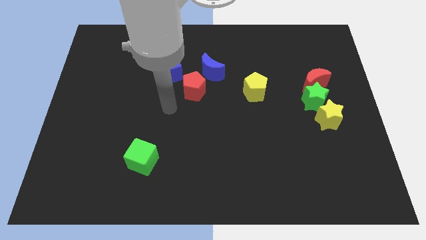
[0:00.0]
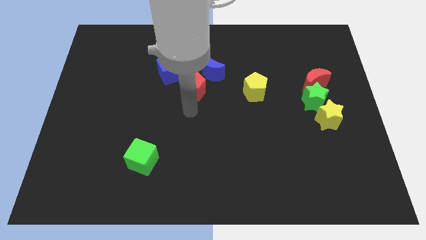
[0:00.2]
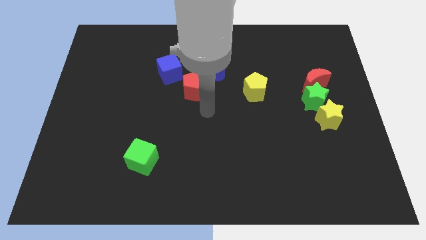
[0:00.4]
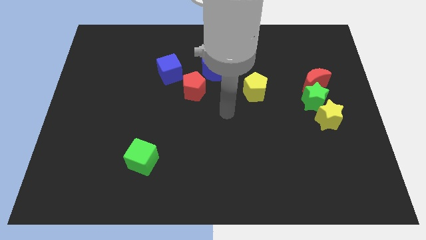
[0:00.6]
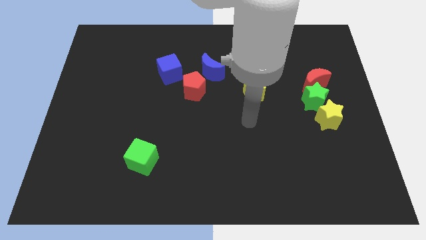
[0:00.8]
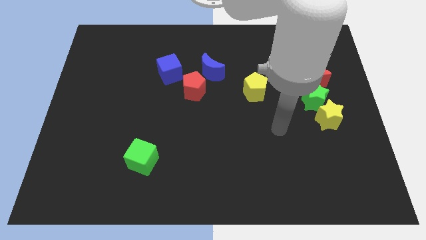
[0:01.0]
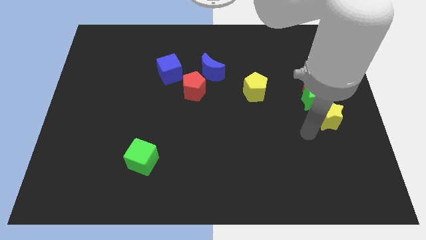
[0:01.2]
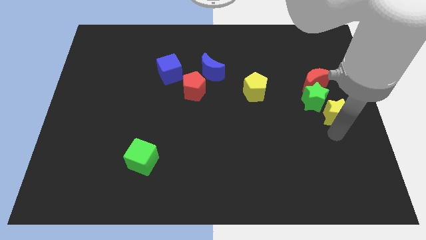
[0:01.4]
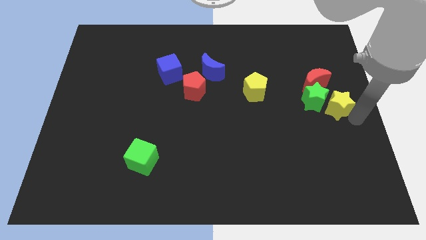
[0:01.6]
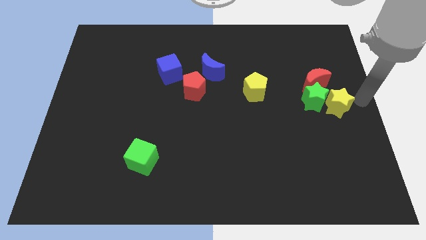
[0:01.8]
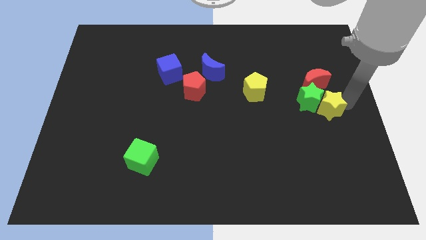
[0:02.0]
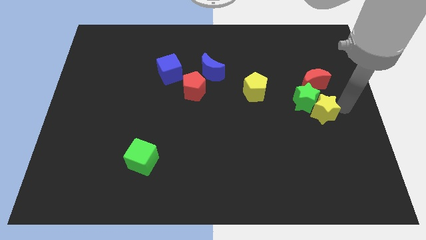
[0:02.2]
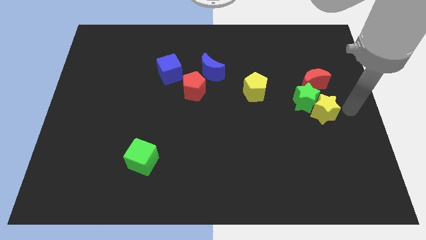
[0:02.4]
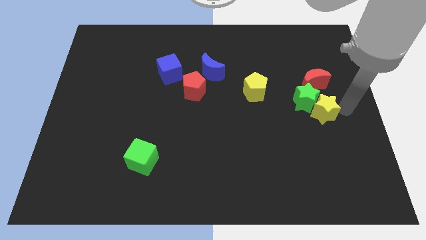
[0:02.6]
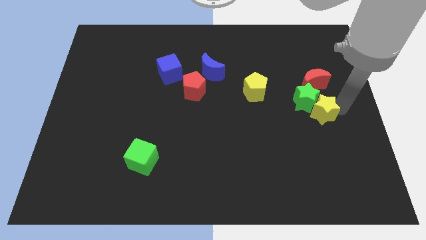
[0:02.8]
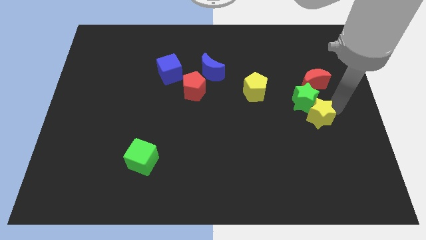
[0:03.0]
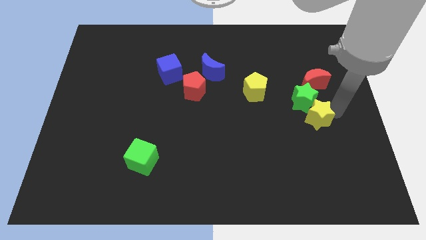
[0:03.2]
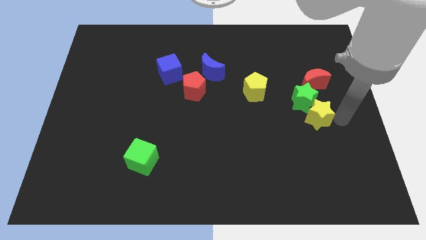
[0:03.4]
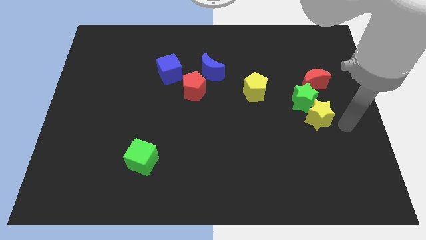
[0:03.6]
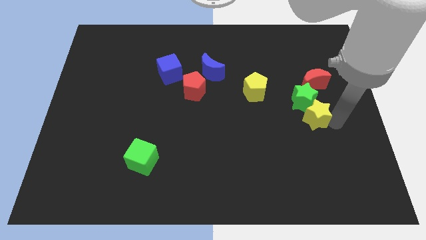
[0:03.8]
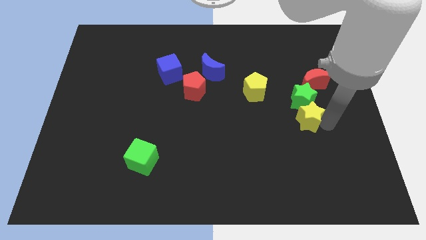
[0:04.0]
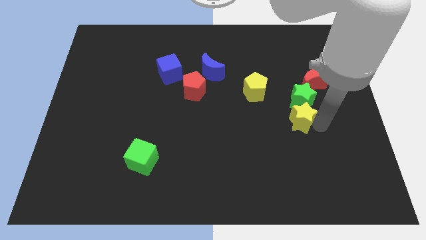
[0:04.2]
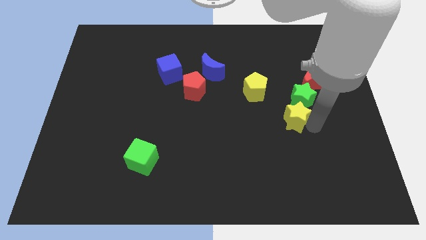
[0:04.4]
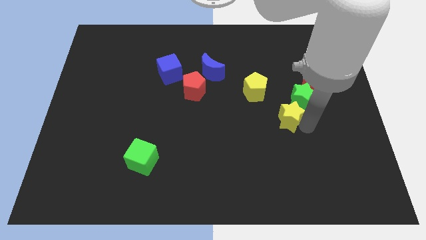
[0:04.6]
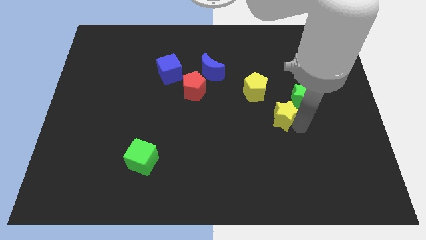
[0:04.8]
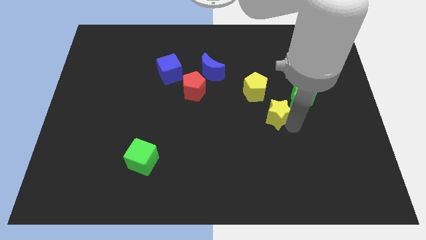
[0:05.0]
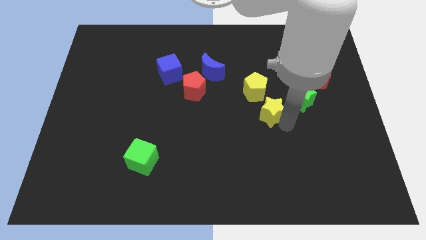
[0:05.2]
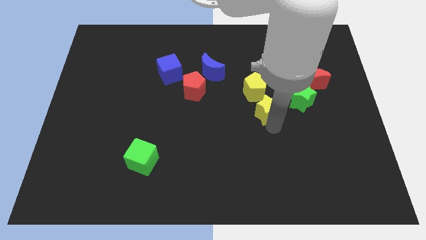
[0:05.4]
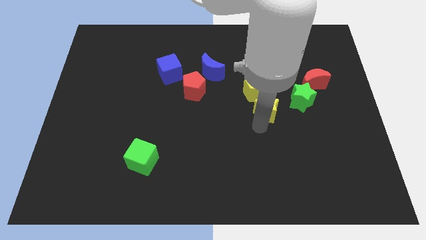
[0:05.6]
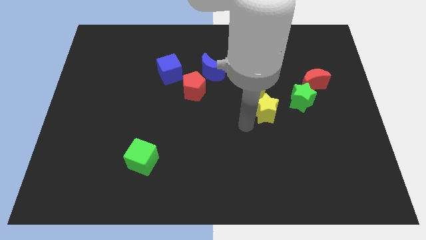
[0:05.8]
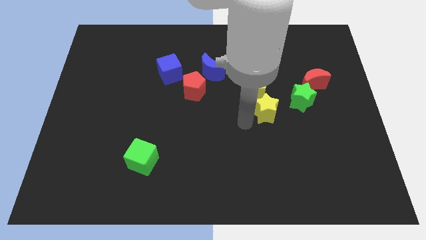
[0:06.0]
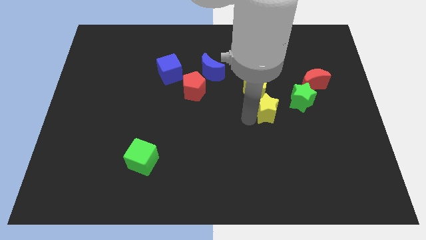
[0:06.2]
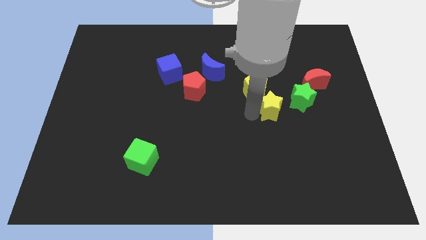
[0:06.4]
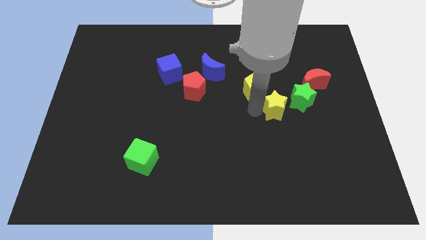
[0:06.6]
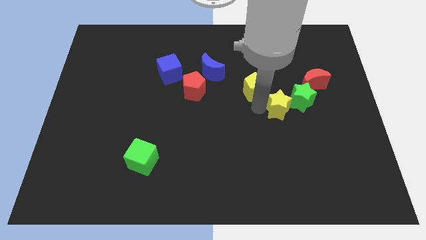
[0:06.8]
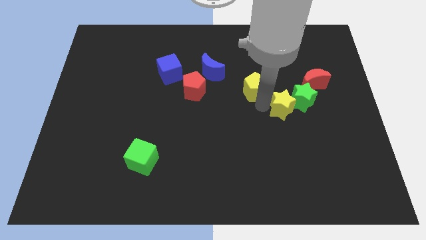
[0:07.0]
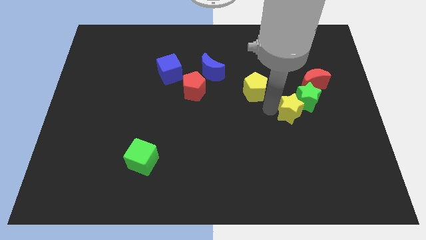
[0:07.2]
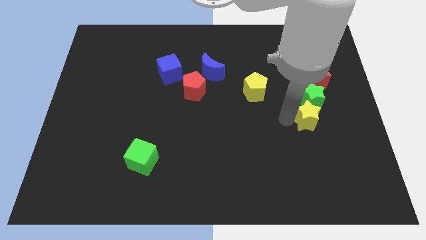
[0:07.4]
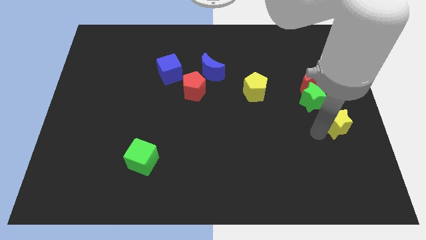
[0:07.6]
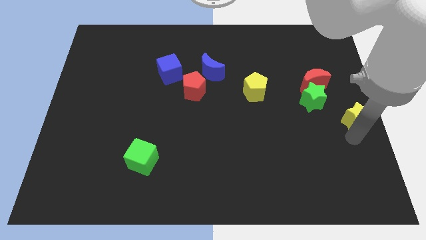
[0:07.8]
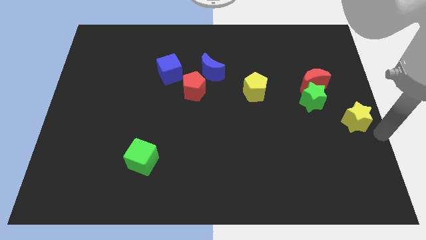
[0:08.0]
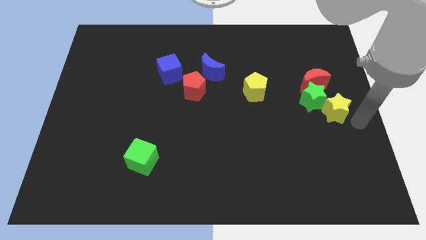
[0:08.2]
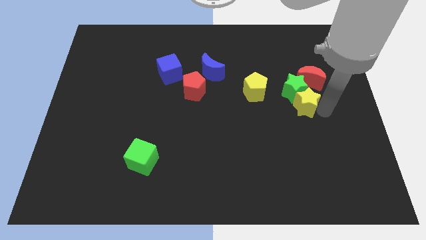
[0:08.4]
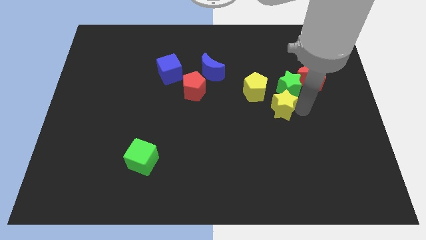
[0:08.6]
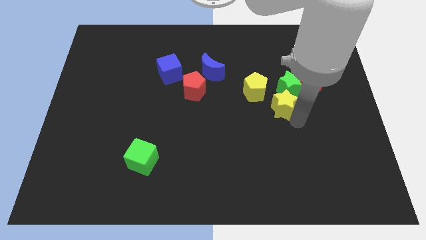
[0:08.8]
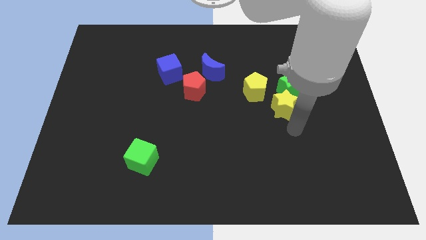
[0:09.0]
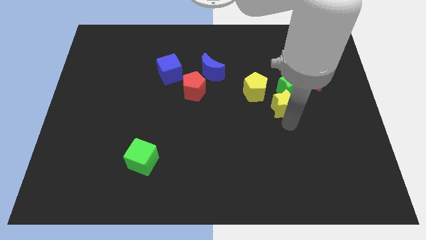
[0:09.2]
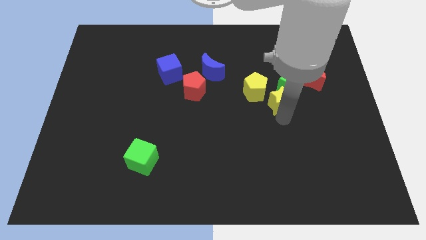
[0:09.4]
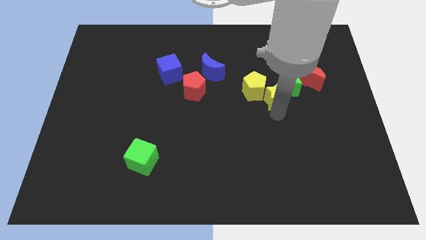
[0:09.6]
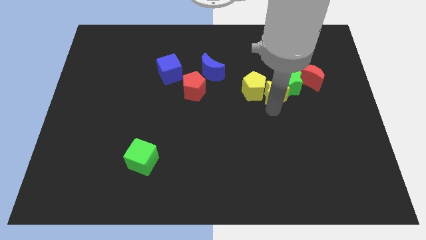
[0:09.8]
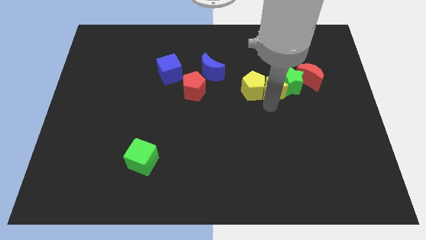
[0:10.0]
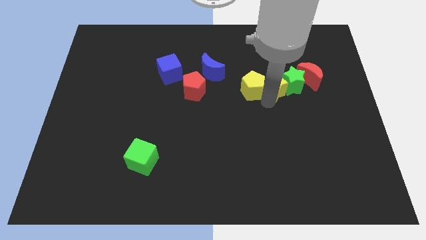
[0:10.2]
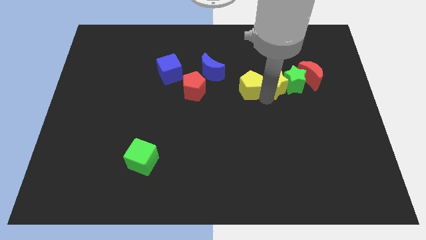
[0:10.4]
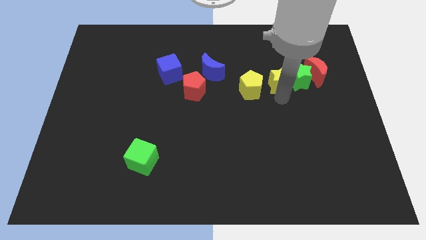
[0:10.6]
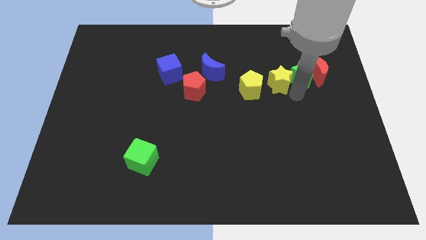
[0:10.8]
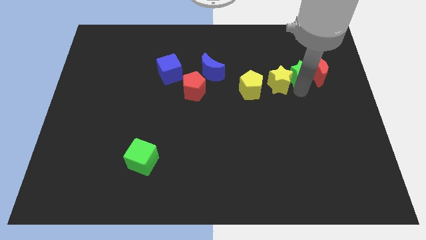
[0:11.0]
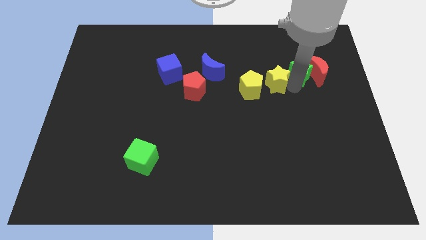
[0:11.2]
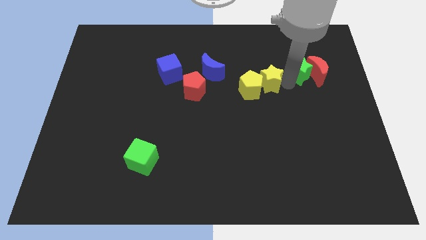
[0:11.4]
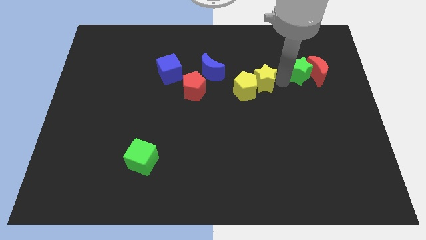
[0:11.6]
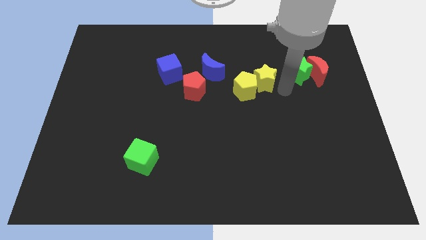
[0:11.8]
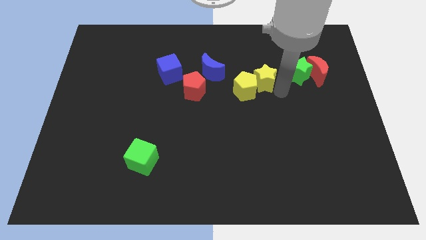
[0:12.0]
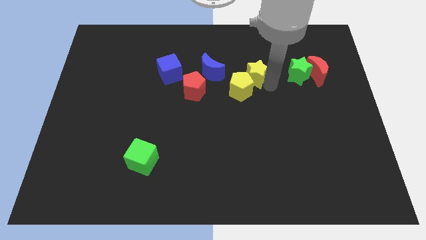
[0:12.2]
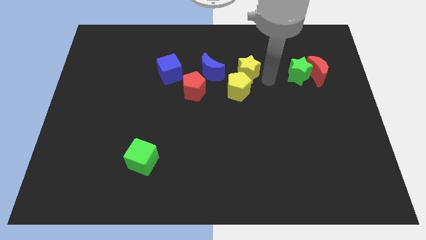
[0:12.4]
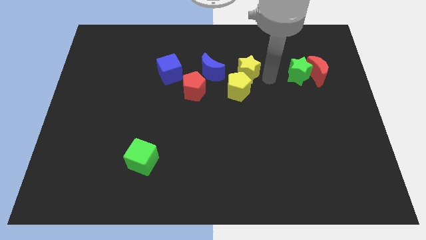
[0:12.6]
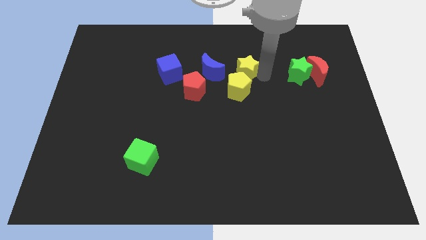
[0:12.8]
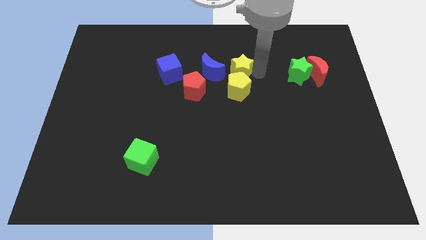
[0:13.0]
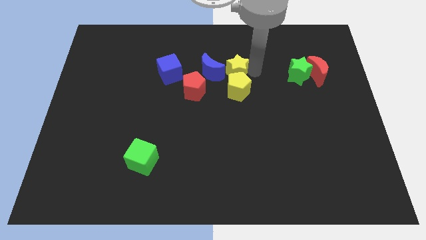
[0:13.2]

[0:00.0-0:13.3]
put the yellow star to the top right side of the red pentagon

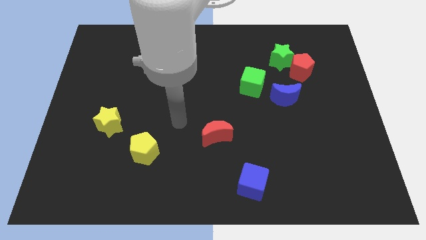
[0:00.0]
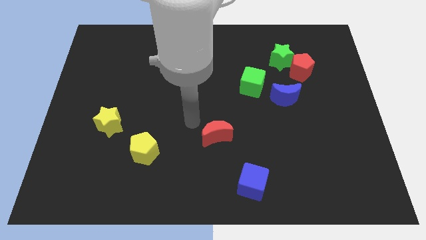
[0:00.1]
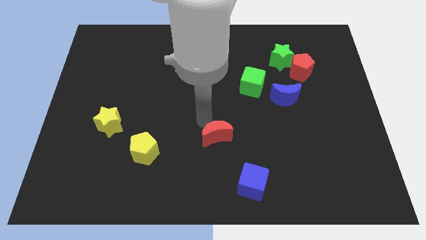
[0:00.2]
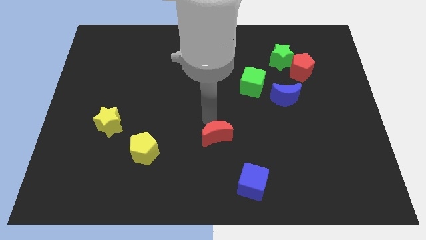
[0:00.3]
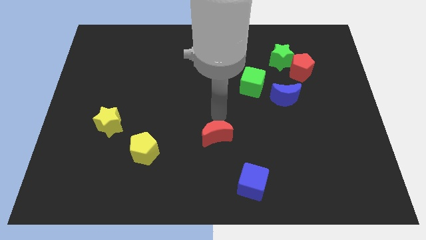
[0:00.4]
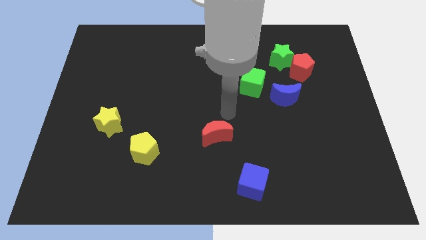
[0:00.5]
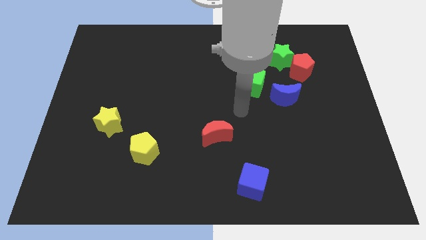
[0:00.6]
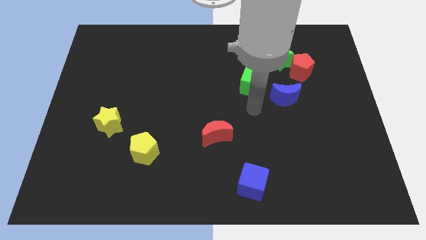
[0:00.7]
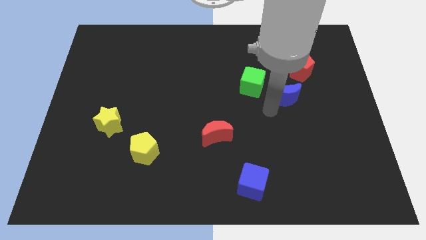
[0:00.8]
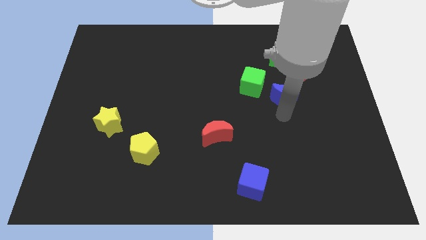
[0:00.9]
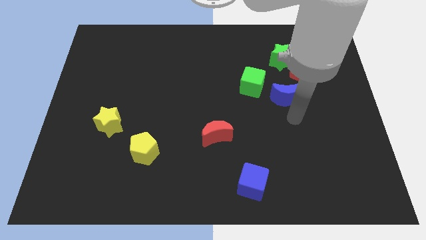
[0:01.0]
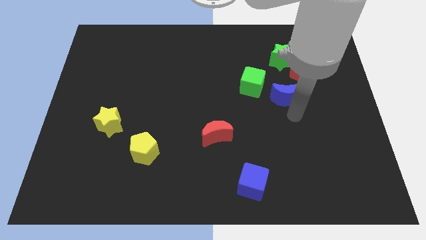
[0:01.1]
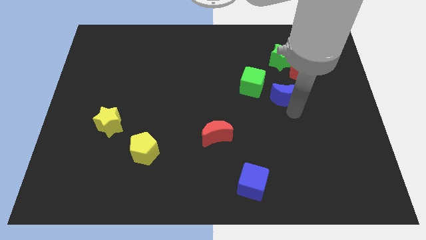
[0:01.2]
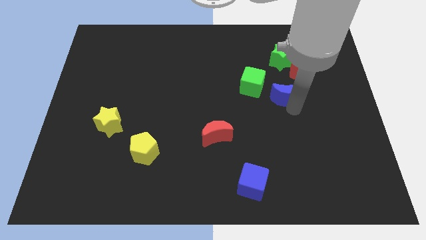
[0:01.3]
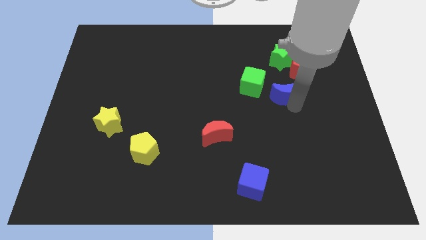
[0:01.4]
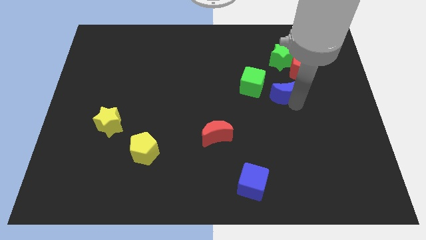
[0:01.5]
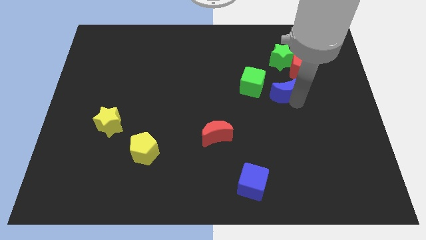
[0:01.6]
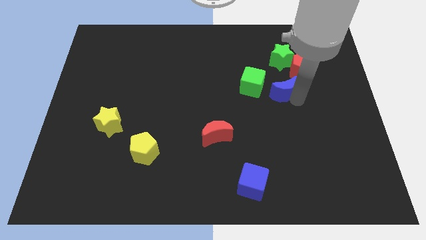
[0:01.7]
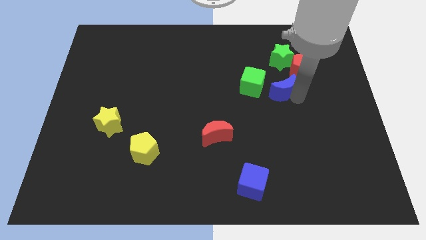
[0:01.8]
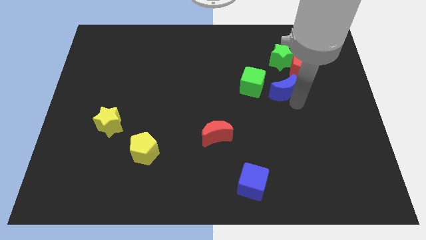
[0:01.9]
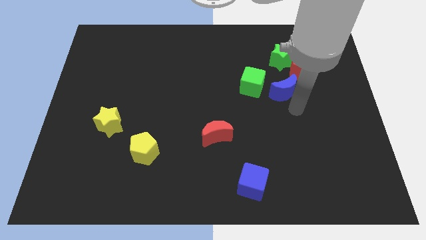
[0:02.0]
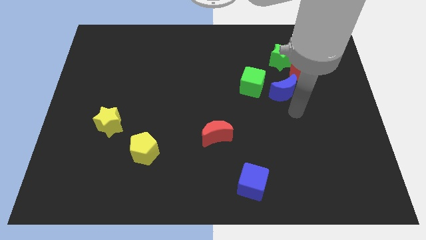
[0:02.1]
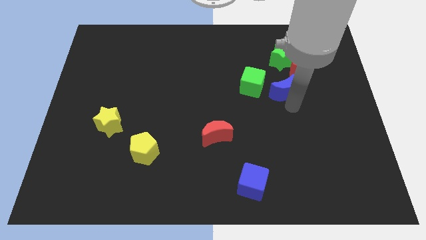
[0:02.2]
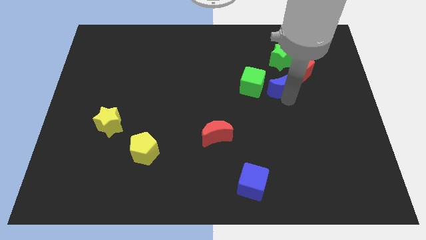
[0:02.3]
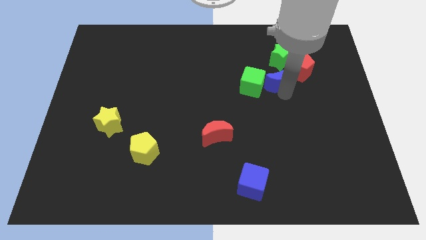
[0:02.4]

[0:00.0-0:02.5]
put the blue moon to the top right of the green cube
